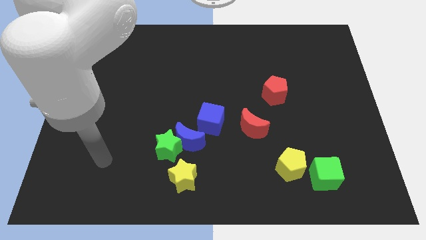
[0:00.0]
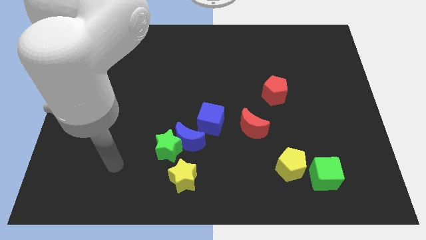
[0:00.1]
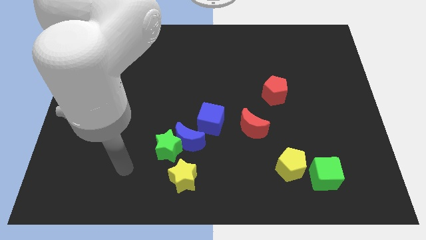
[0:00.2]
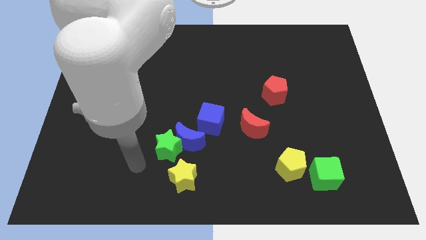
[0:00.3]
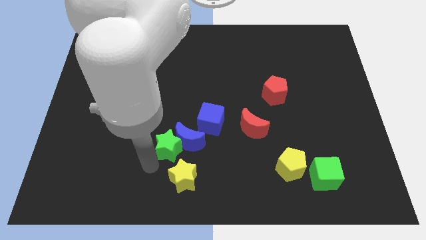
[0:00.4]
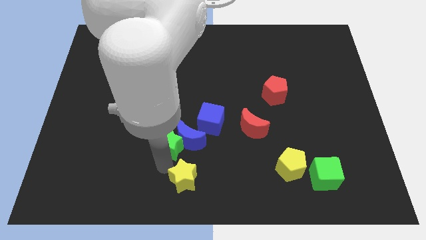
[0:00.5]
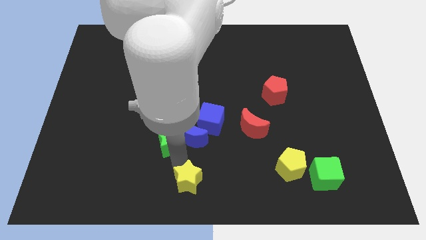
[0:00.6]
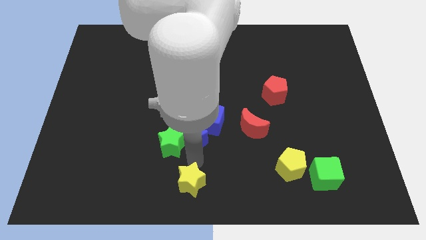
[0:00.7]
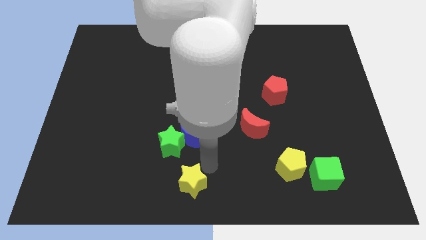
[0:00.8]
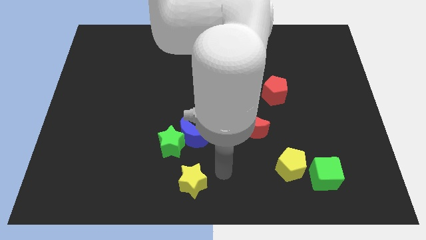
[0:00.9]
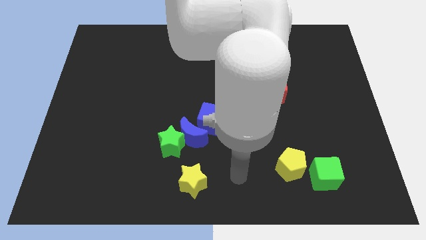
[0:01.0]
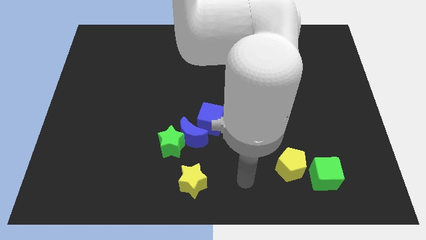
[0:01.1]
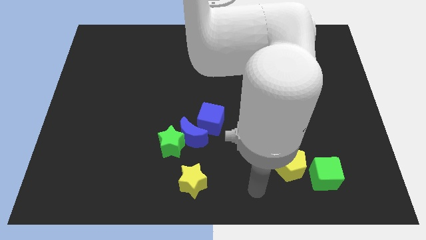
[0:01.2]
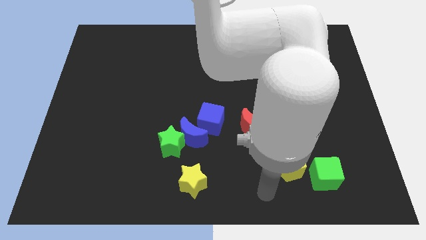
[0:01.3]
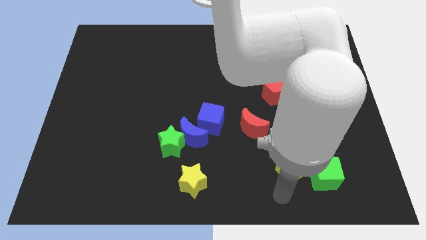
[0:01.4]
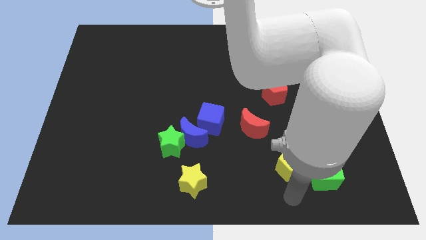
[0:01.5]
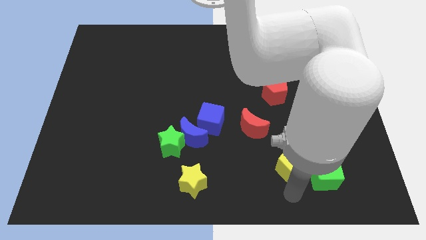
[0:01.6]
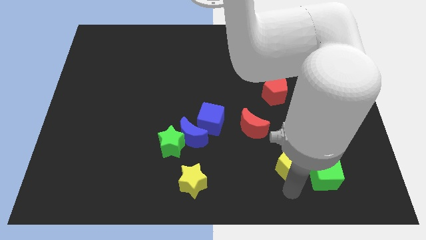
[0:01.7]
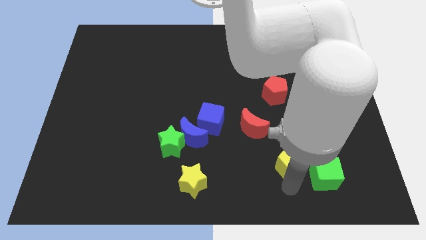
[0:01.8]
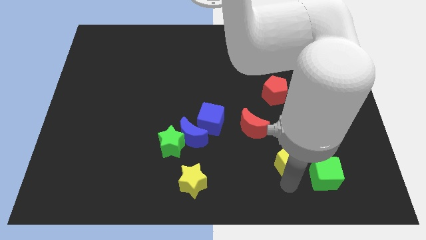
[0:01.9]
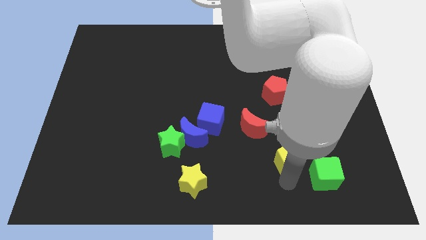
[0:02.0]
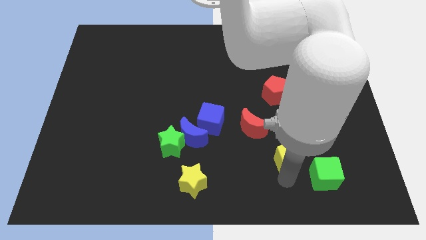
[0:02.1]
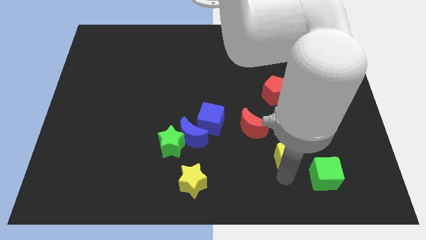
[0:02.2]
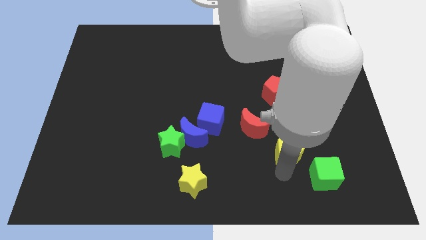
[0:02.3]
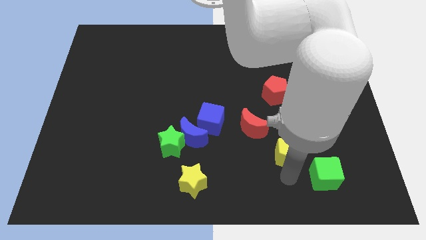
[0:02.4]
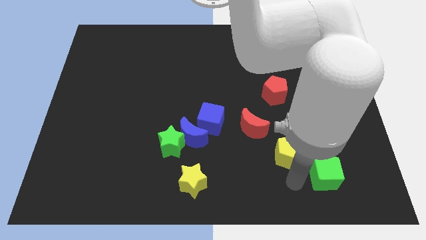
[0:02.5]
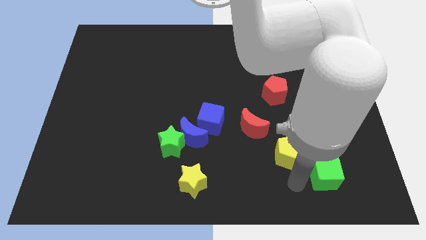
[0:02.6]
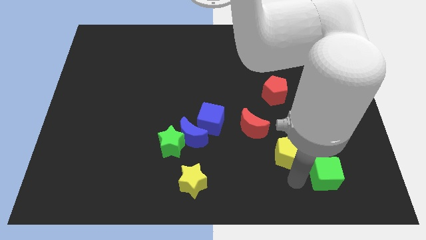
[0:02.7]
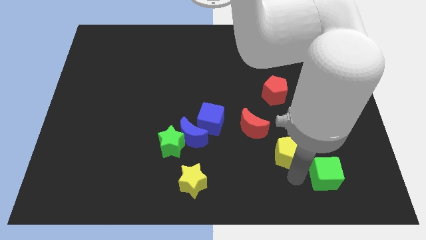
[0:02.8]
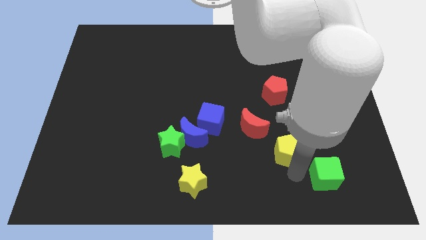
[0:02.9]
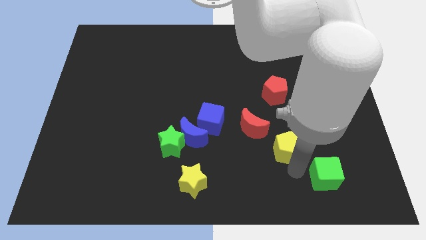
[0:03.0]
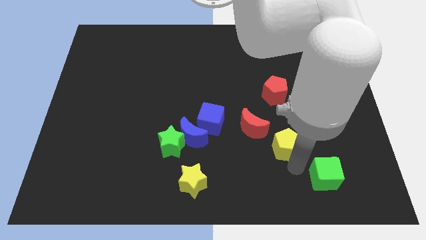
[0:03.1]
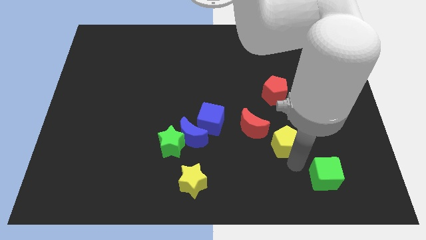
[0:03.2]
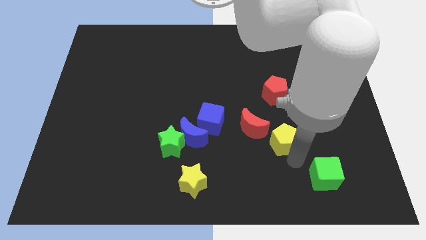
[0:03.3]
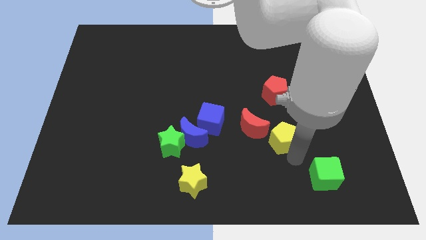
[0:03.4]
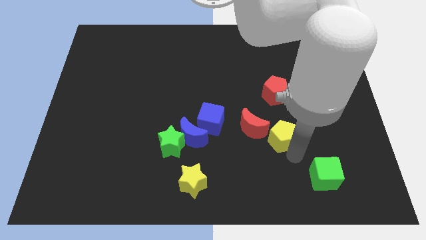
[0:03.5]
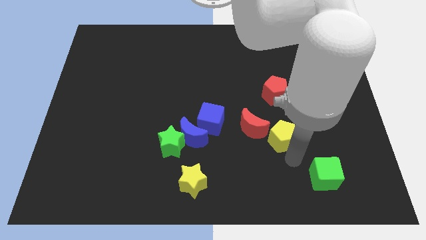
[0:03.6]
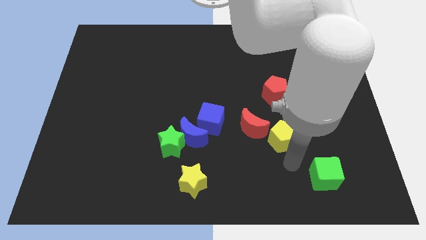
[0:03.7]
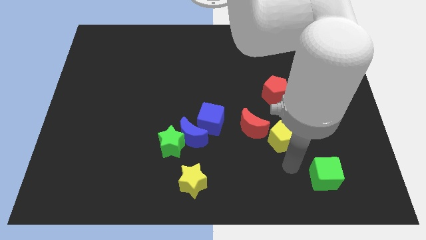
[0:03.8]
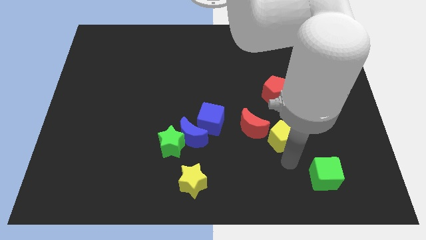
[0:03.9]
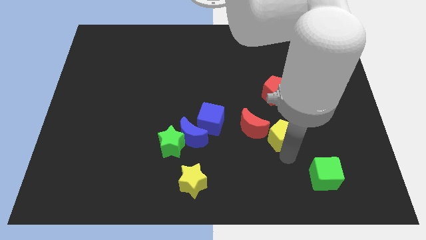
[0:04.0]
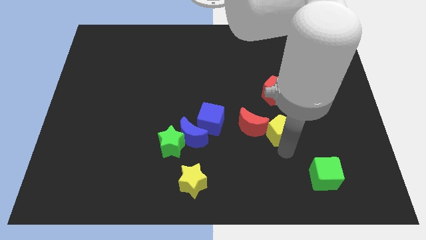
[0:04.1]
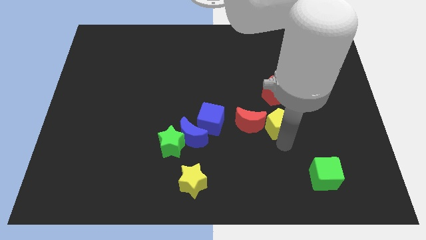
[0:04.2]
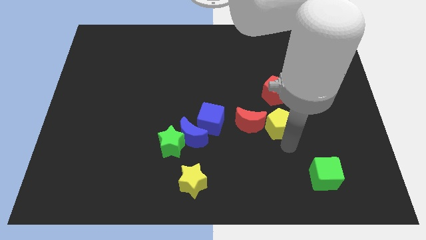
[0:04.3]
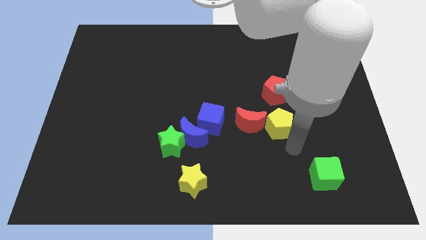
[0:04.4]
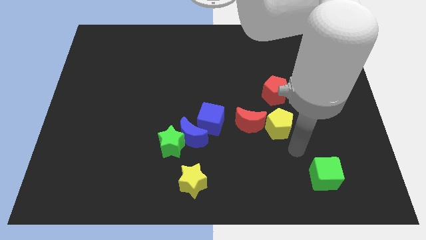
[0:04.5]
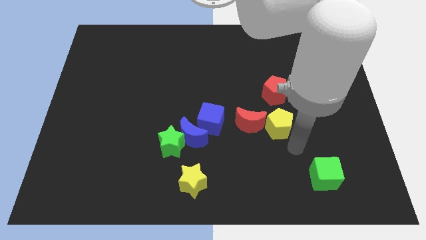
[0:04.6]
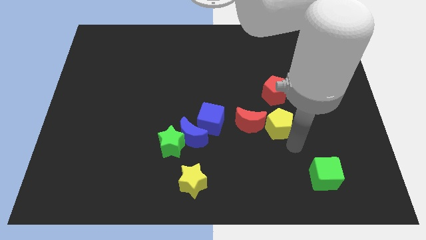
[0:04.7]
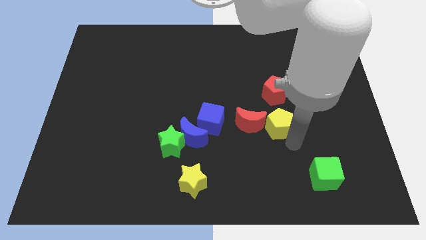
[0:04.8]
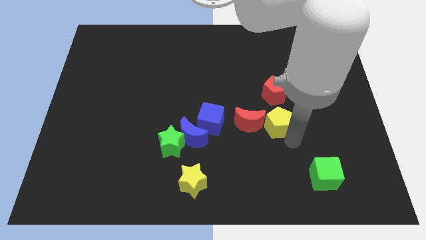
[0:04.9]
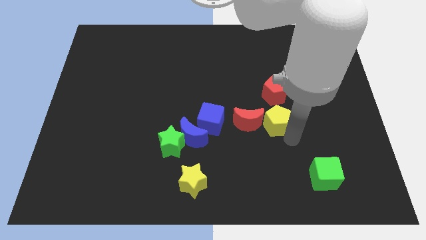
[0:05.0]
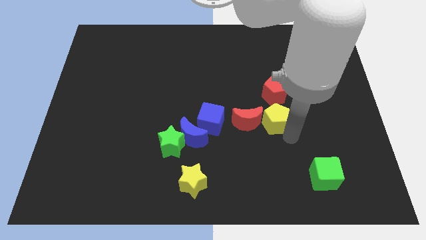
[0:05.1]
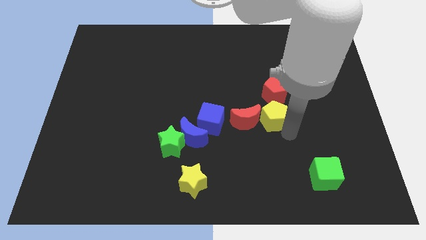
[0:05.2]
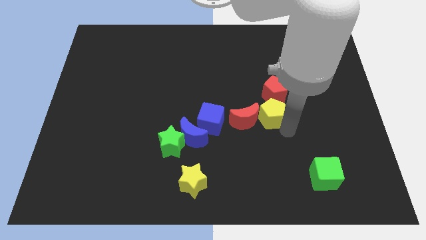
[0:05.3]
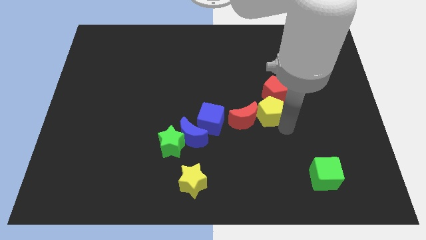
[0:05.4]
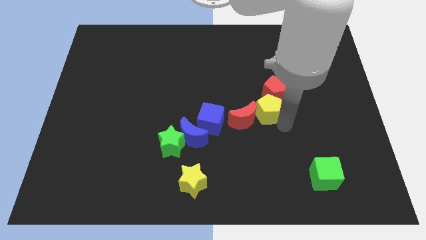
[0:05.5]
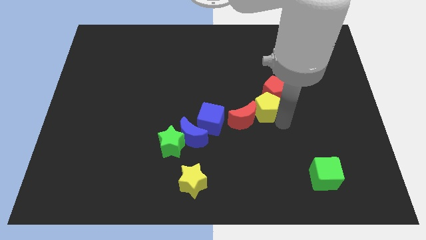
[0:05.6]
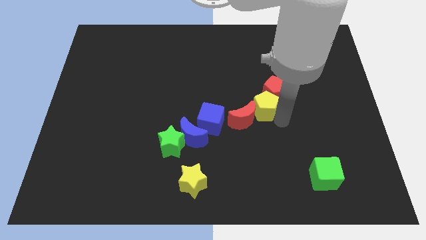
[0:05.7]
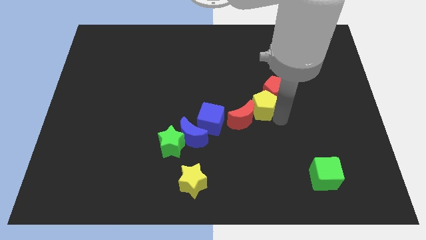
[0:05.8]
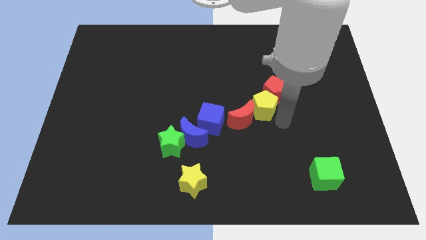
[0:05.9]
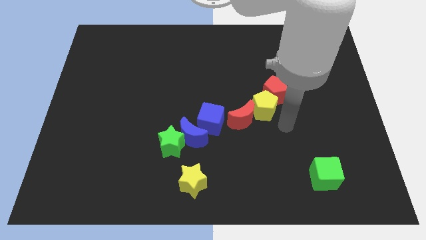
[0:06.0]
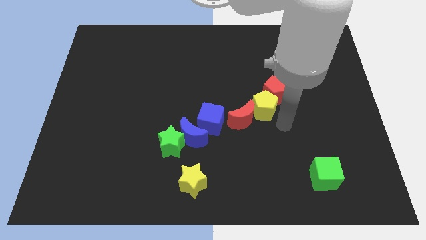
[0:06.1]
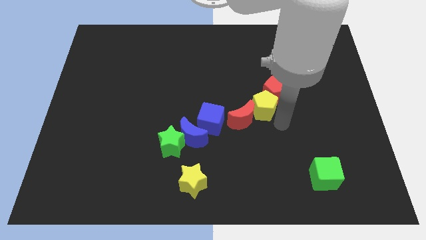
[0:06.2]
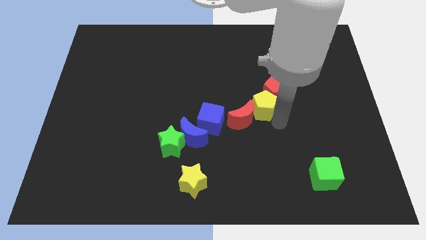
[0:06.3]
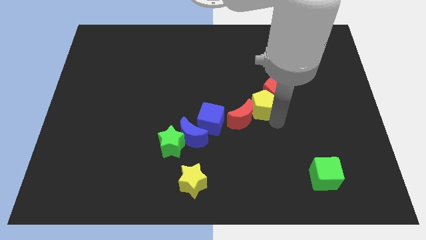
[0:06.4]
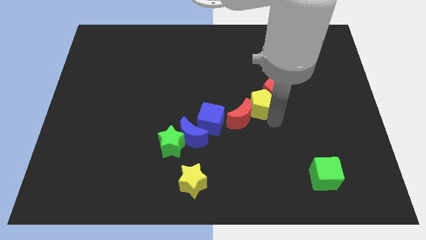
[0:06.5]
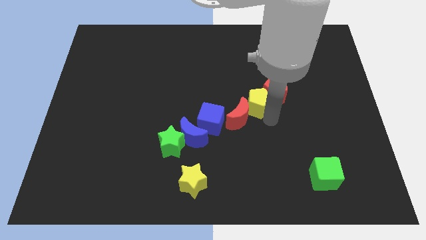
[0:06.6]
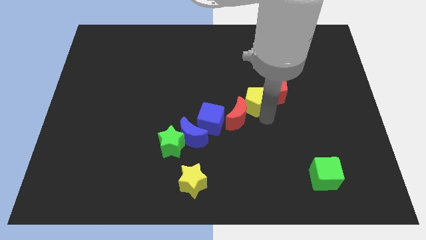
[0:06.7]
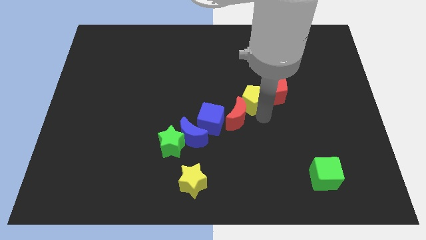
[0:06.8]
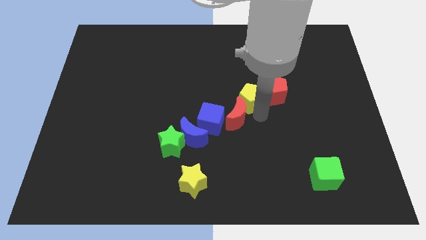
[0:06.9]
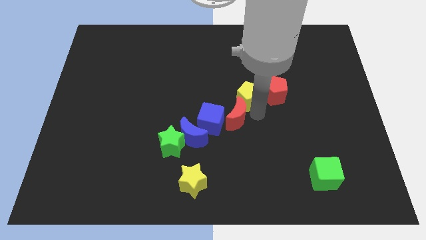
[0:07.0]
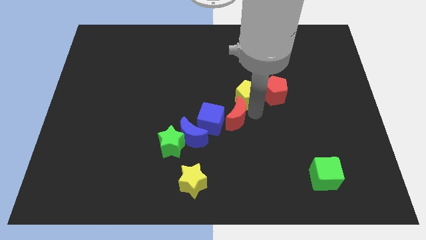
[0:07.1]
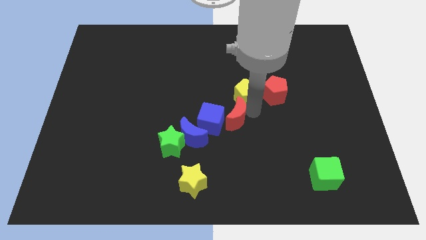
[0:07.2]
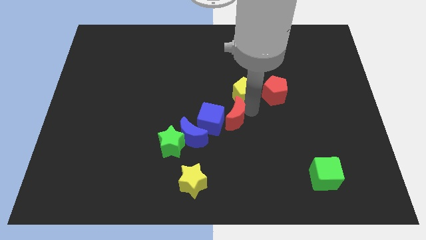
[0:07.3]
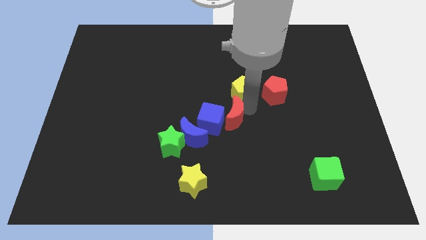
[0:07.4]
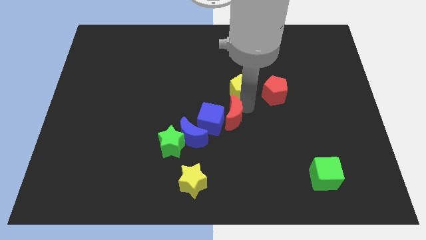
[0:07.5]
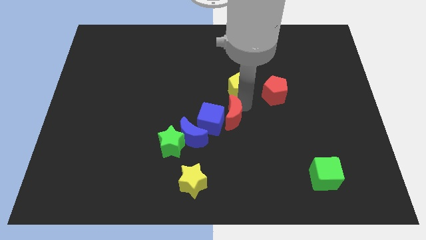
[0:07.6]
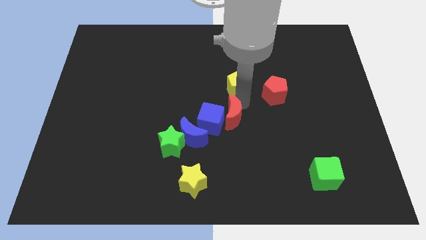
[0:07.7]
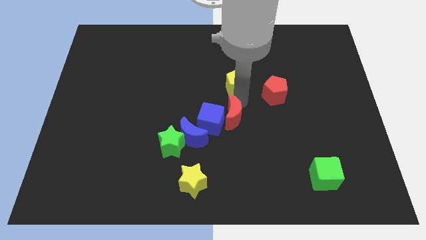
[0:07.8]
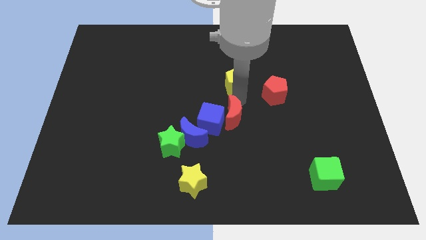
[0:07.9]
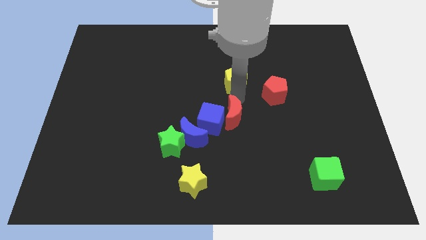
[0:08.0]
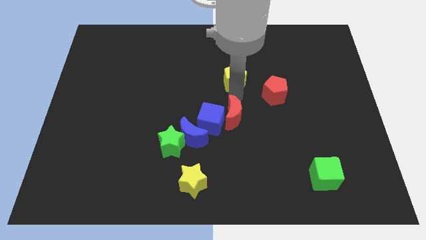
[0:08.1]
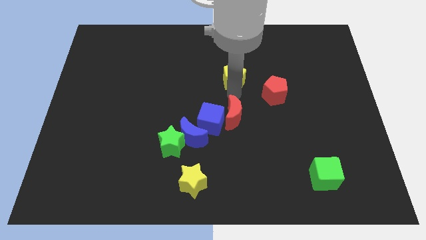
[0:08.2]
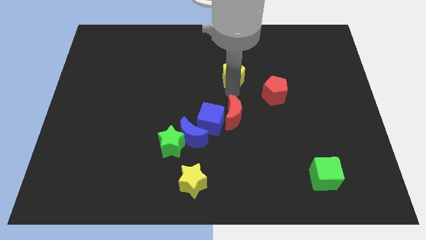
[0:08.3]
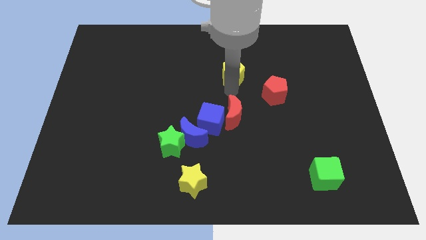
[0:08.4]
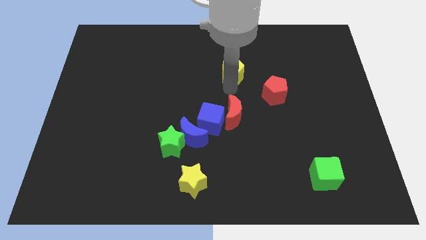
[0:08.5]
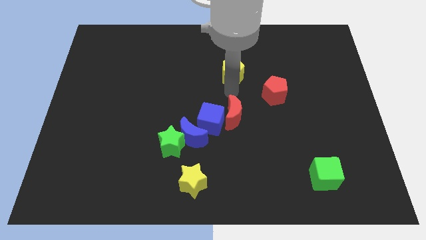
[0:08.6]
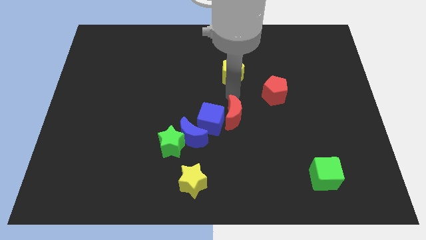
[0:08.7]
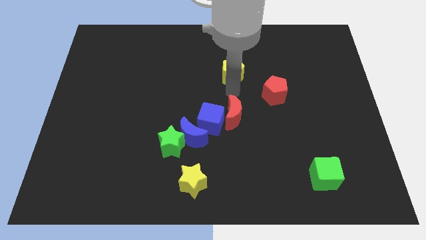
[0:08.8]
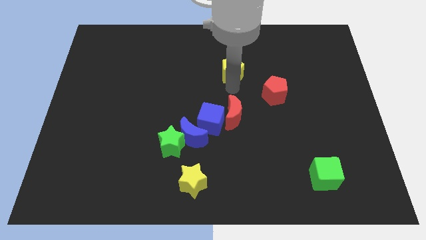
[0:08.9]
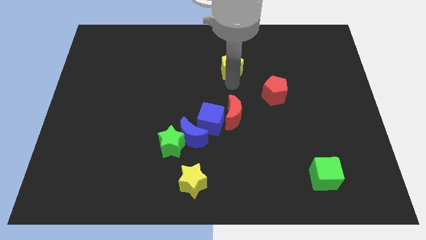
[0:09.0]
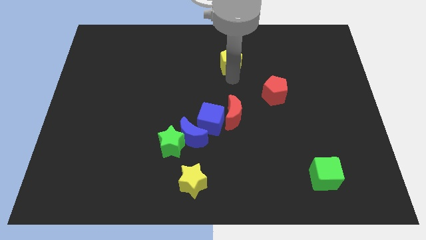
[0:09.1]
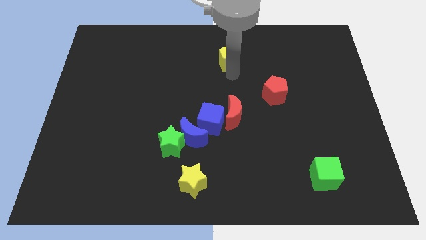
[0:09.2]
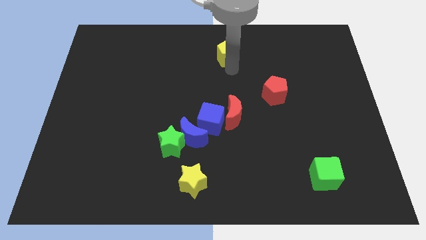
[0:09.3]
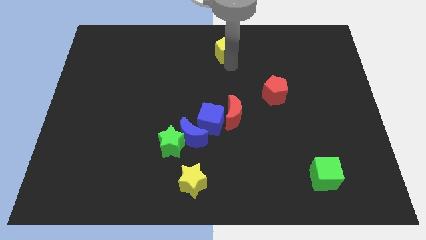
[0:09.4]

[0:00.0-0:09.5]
push the yellow pentagon to the towards your base
